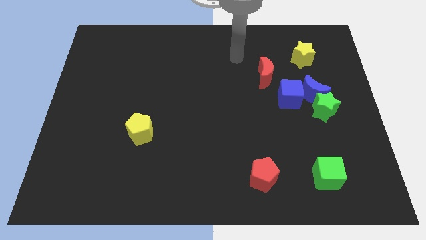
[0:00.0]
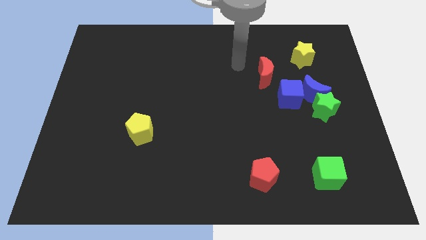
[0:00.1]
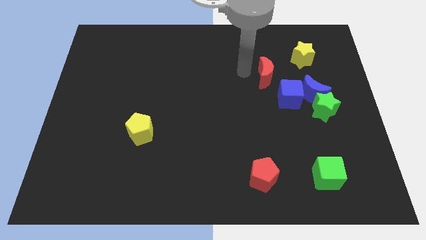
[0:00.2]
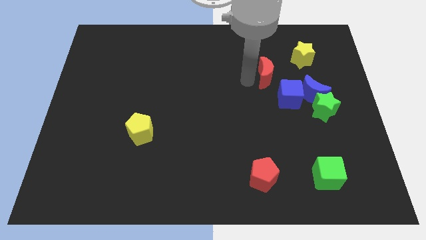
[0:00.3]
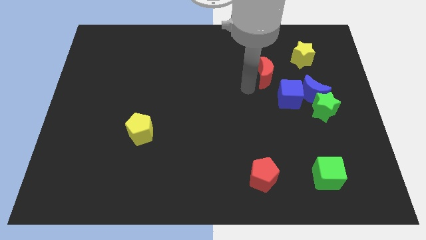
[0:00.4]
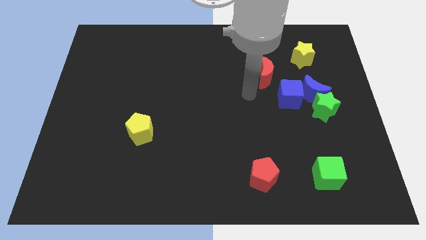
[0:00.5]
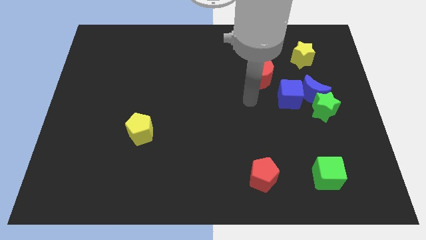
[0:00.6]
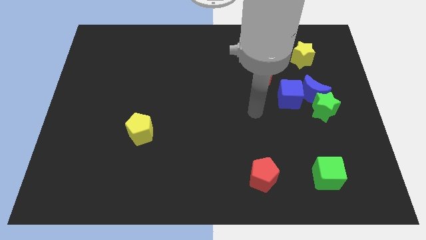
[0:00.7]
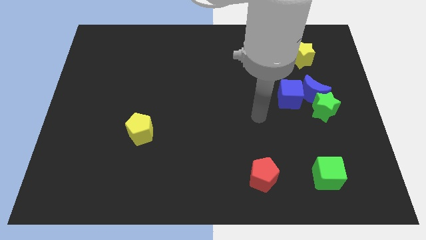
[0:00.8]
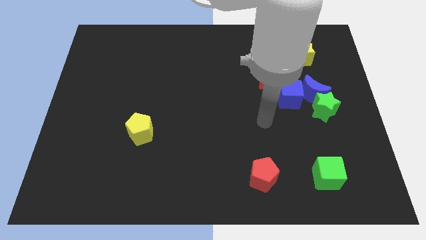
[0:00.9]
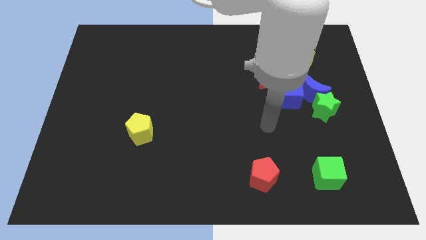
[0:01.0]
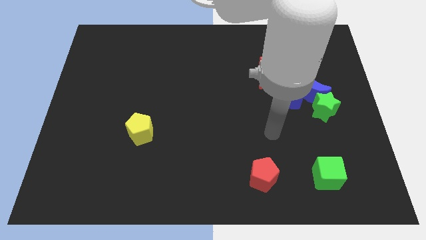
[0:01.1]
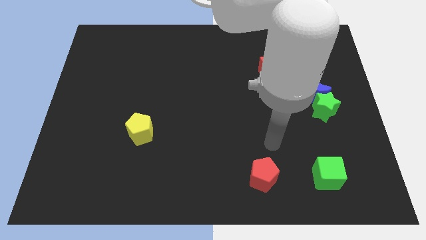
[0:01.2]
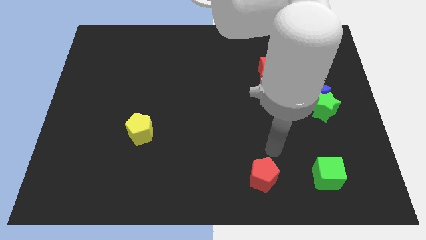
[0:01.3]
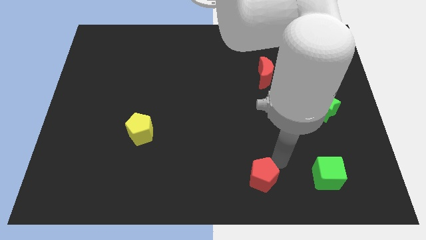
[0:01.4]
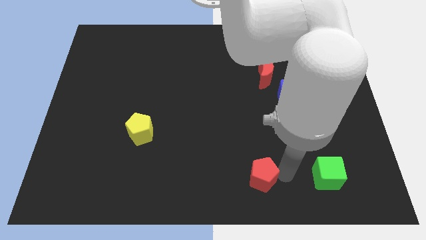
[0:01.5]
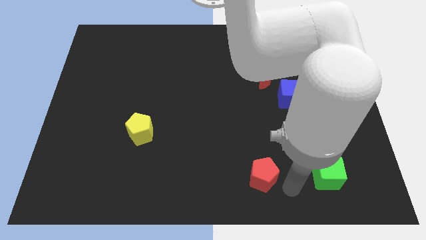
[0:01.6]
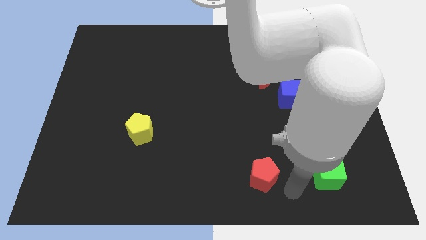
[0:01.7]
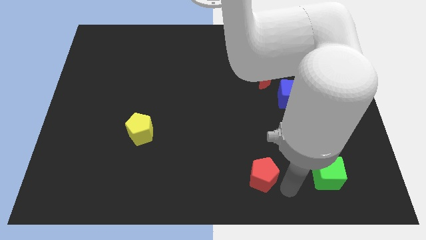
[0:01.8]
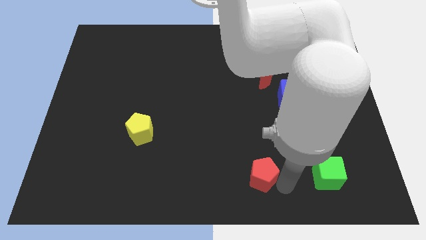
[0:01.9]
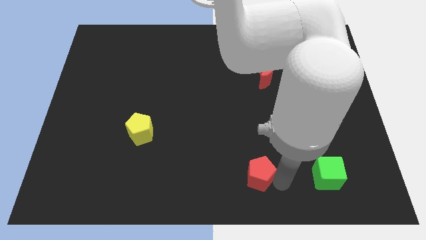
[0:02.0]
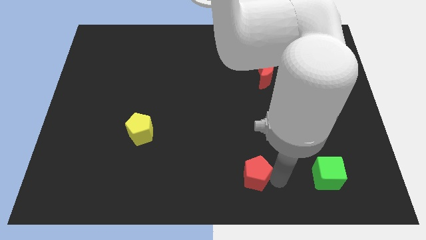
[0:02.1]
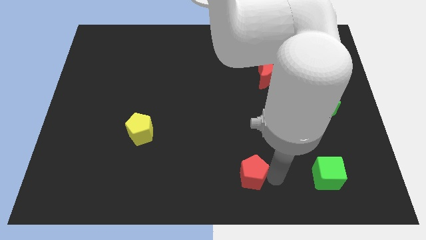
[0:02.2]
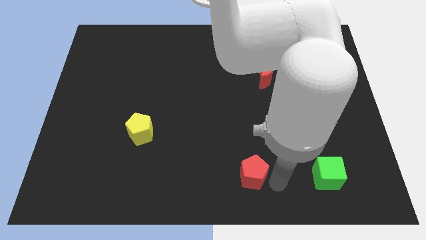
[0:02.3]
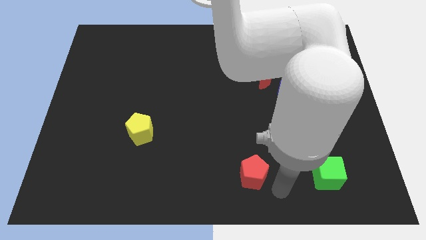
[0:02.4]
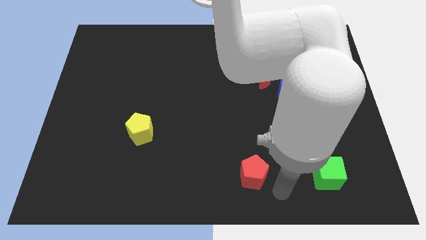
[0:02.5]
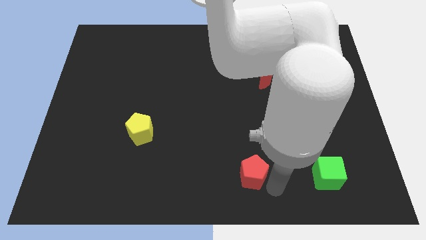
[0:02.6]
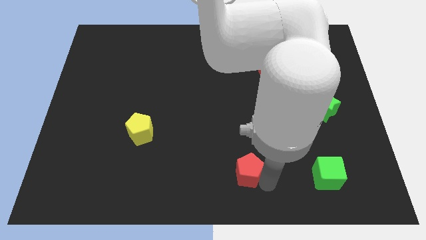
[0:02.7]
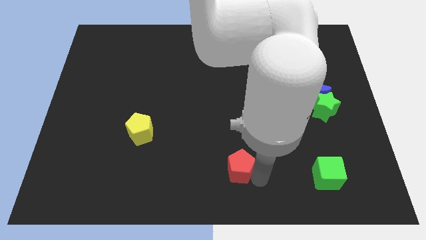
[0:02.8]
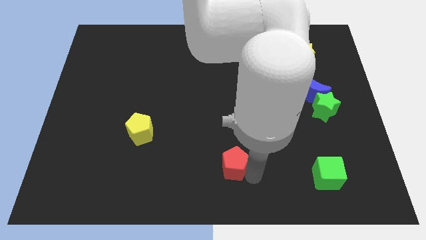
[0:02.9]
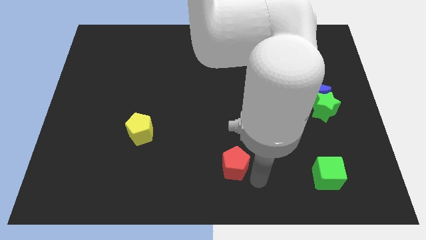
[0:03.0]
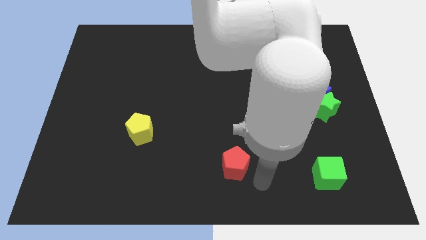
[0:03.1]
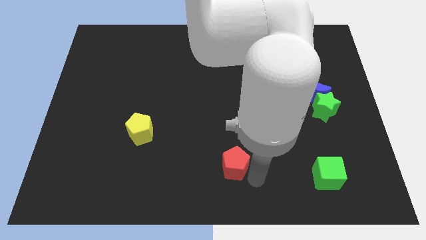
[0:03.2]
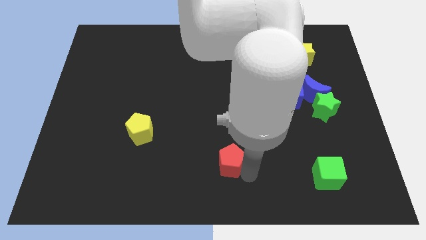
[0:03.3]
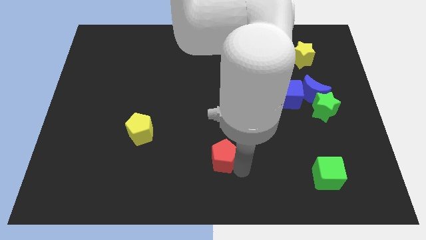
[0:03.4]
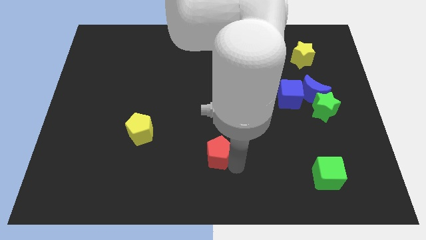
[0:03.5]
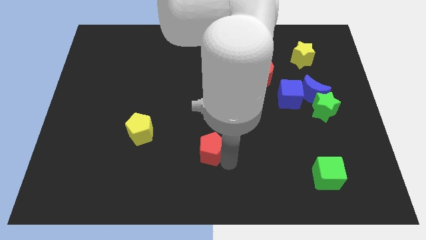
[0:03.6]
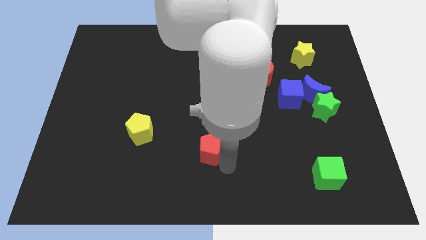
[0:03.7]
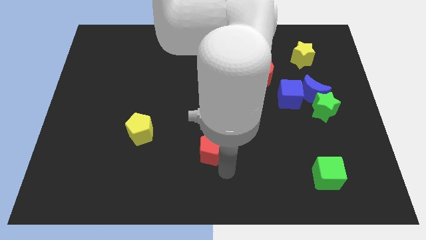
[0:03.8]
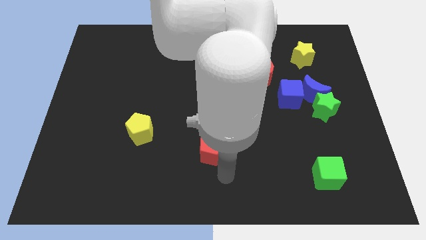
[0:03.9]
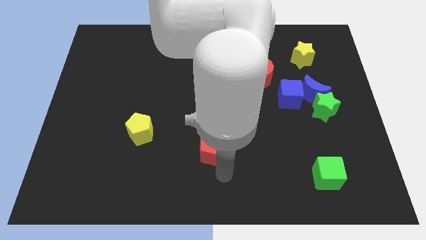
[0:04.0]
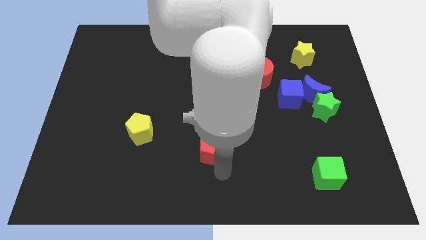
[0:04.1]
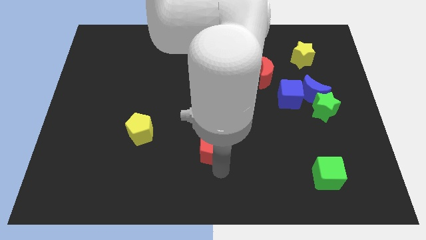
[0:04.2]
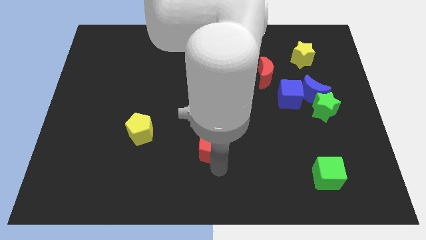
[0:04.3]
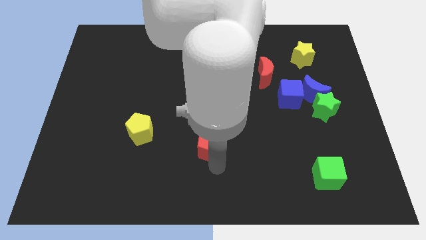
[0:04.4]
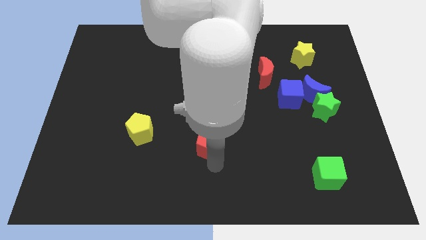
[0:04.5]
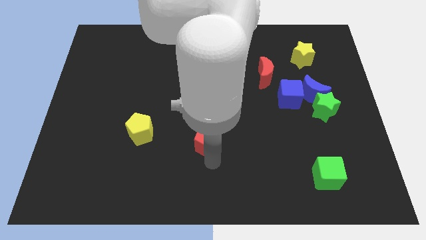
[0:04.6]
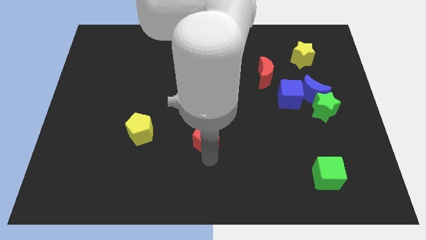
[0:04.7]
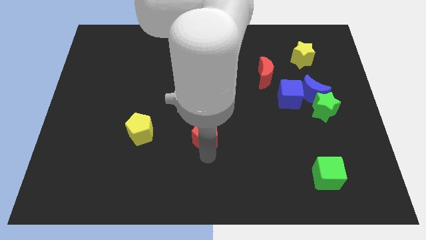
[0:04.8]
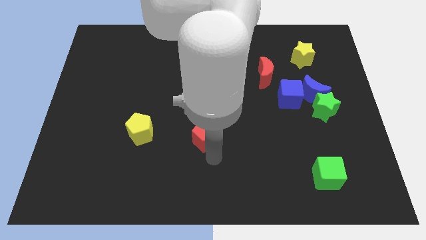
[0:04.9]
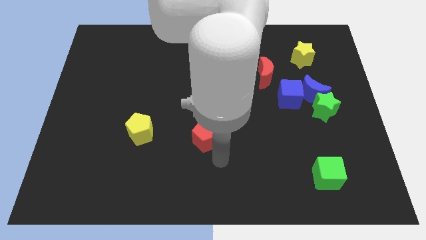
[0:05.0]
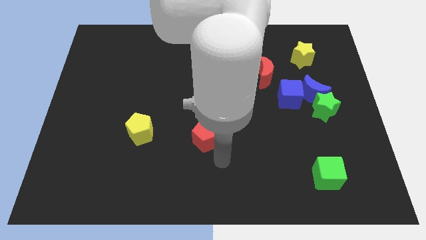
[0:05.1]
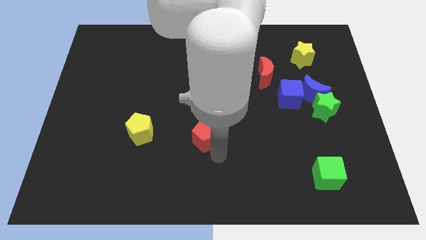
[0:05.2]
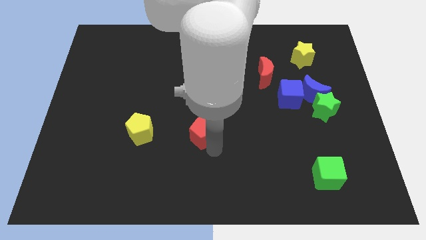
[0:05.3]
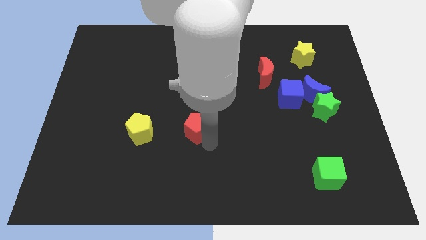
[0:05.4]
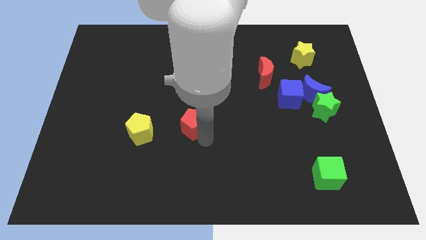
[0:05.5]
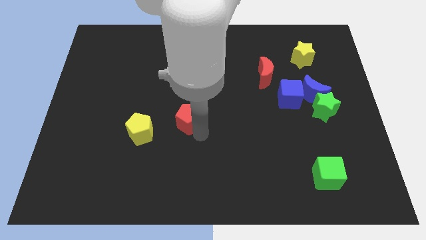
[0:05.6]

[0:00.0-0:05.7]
push the red pentagon upwards and then left

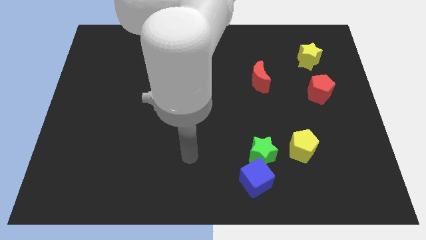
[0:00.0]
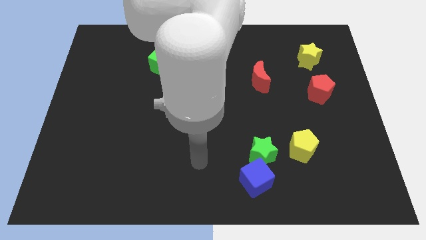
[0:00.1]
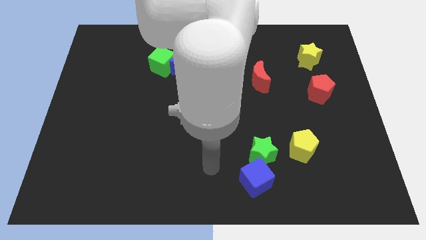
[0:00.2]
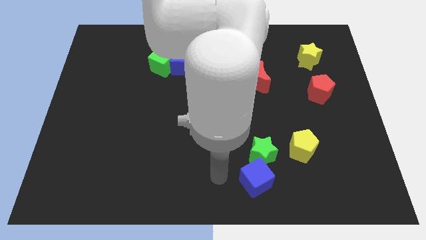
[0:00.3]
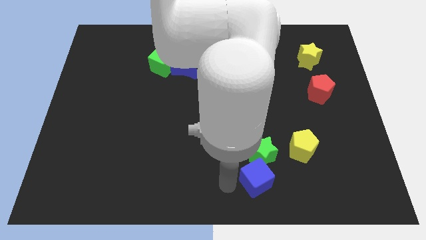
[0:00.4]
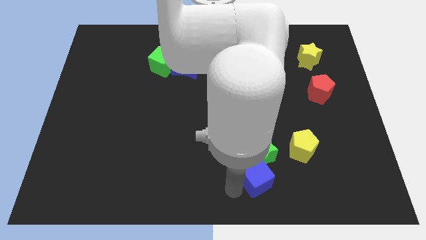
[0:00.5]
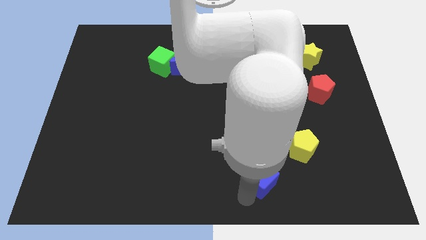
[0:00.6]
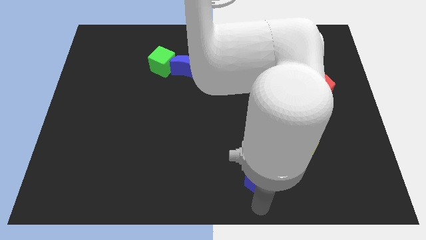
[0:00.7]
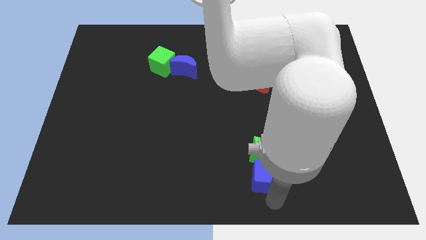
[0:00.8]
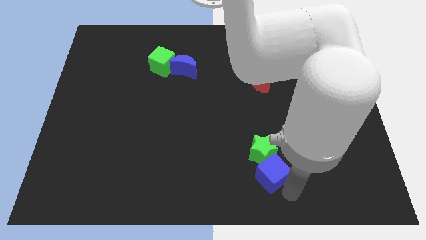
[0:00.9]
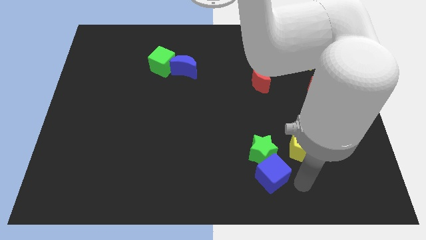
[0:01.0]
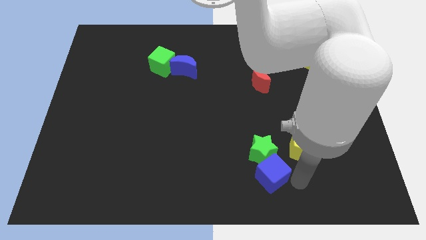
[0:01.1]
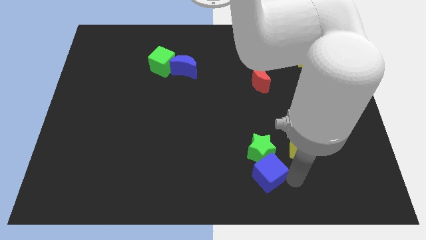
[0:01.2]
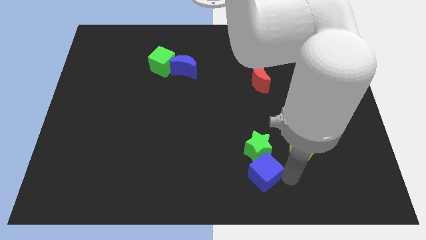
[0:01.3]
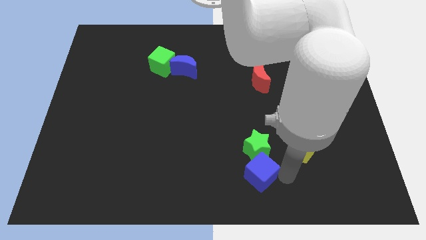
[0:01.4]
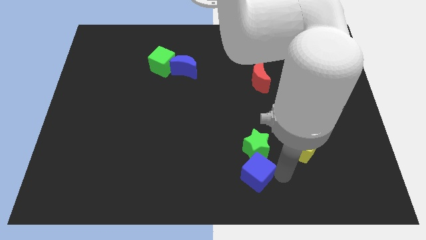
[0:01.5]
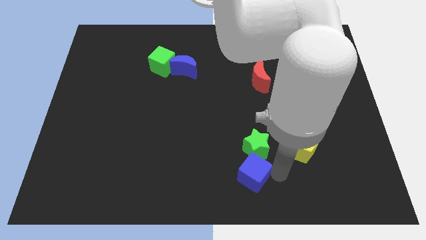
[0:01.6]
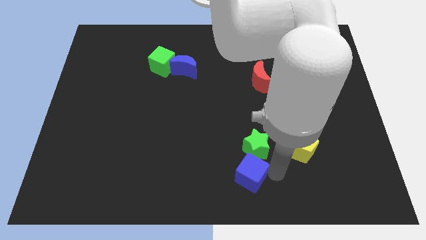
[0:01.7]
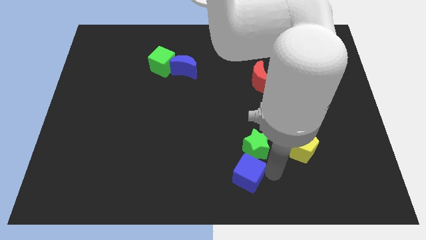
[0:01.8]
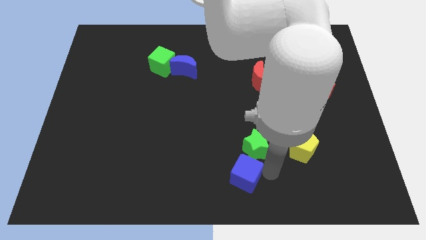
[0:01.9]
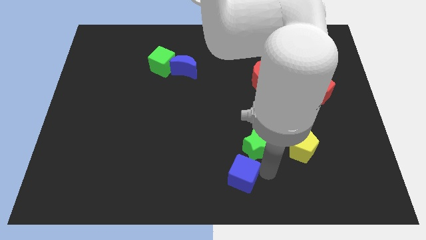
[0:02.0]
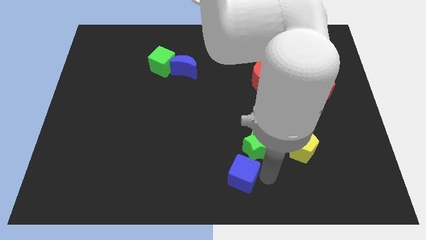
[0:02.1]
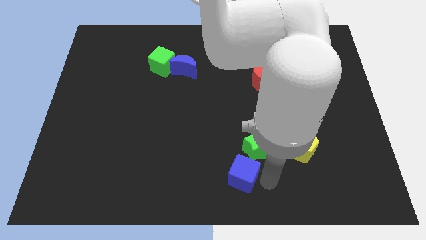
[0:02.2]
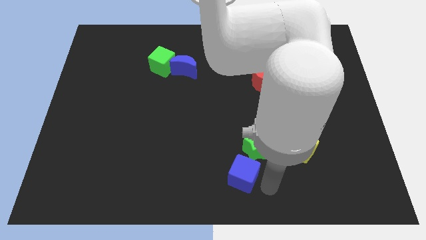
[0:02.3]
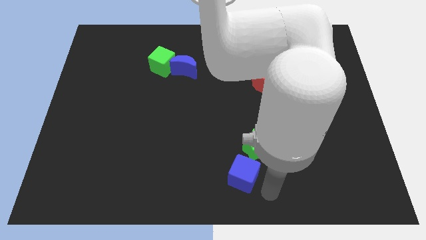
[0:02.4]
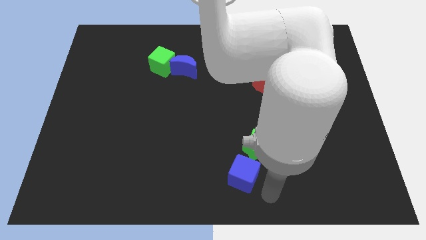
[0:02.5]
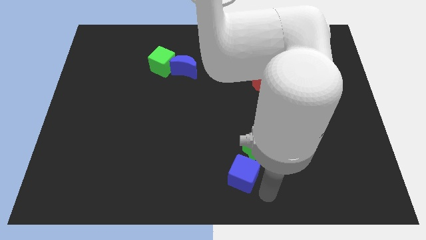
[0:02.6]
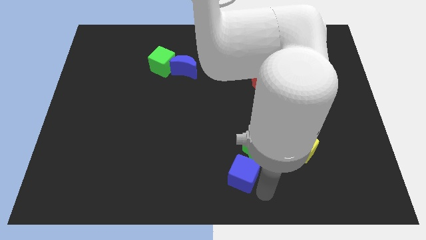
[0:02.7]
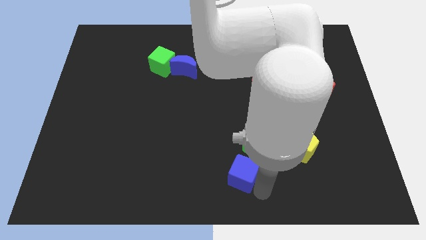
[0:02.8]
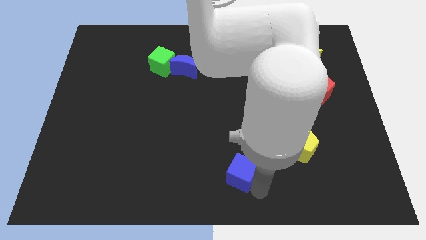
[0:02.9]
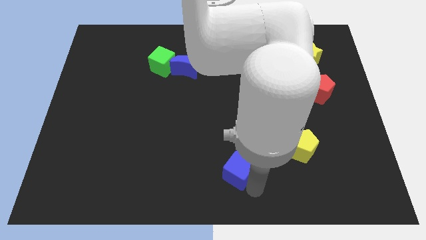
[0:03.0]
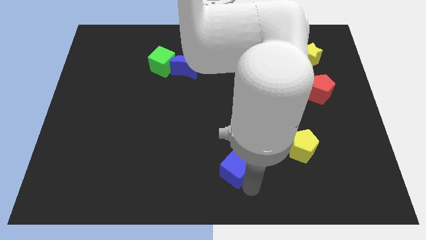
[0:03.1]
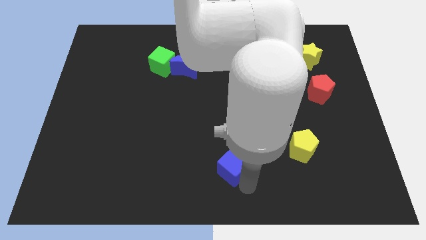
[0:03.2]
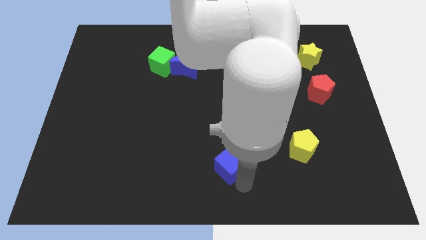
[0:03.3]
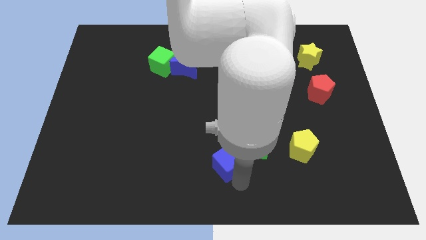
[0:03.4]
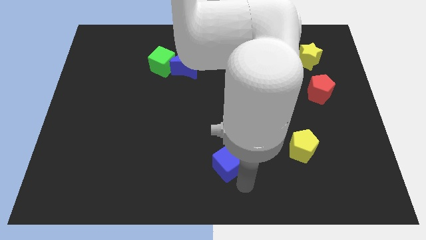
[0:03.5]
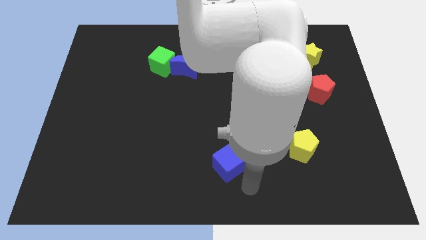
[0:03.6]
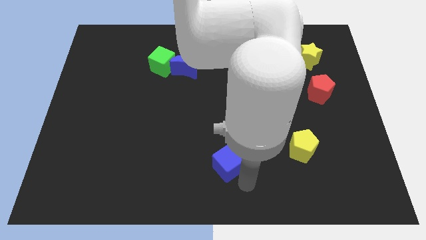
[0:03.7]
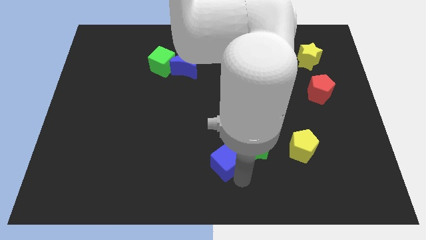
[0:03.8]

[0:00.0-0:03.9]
move the blue cube a little bit diagonally upwards and to the left
